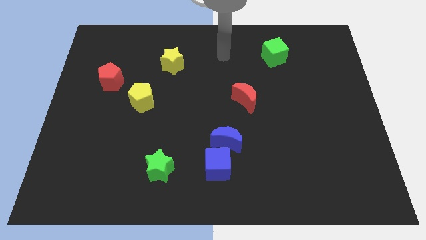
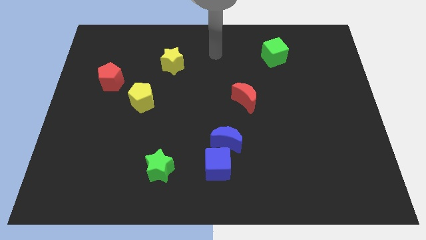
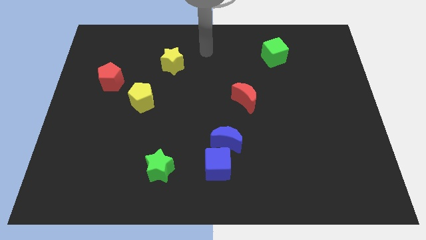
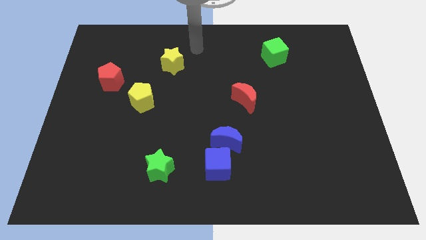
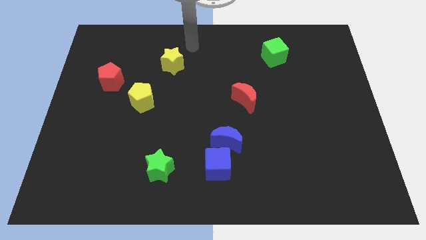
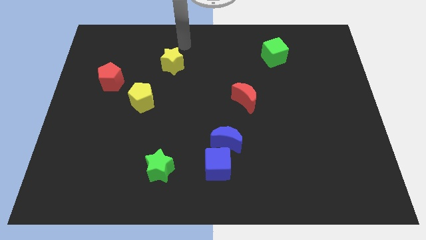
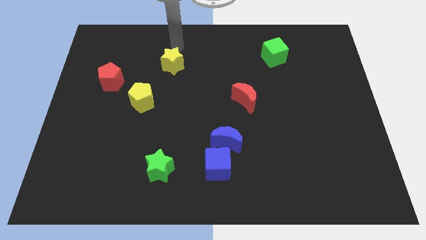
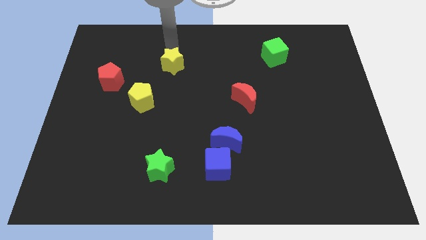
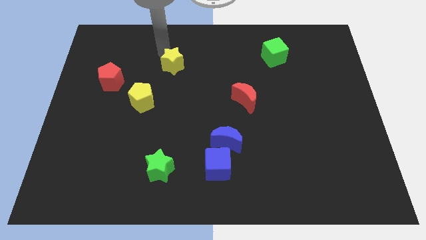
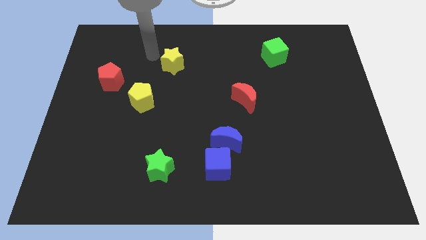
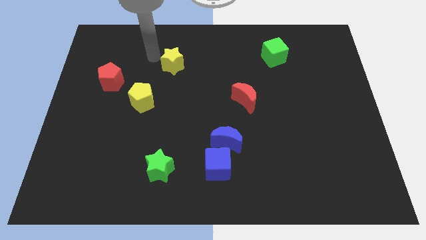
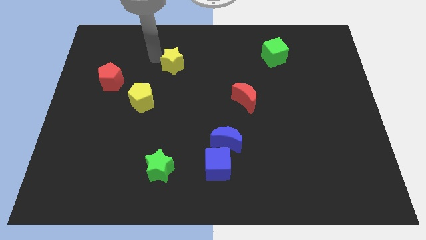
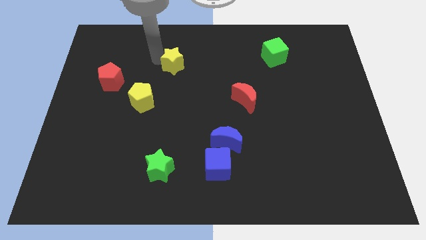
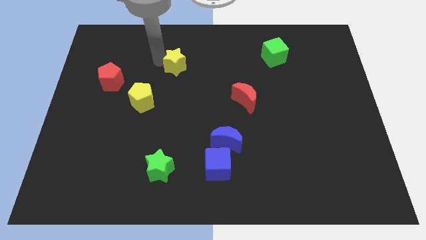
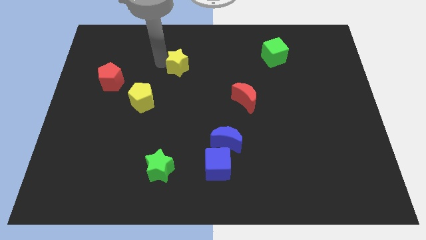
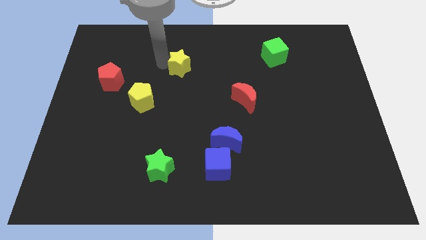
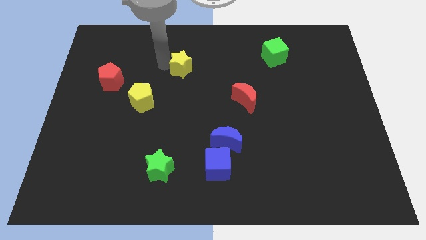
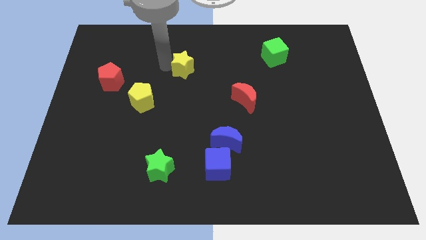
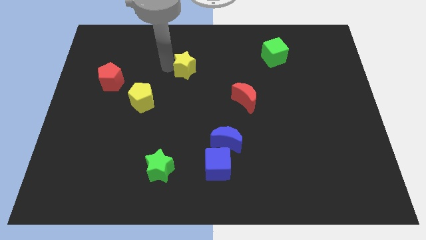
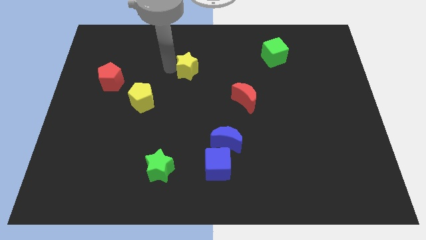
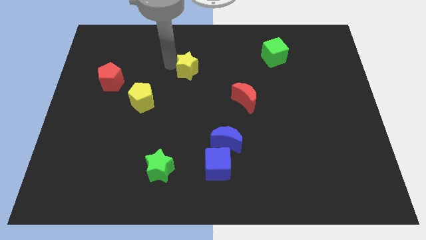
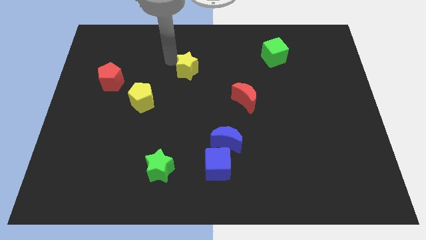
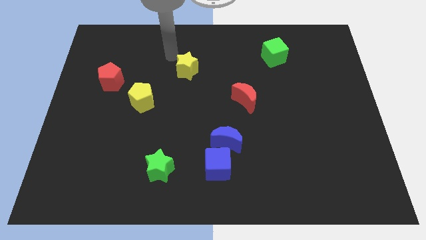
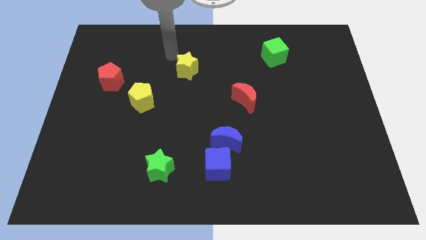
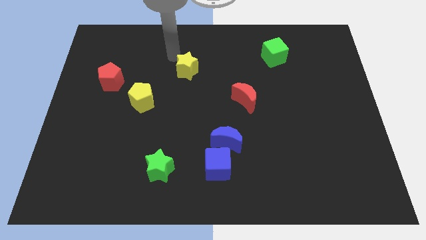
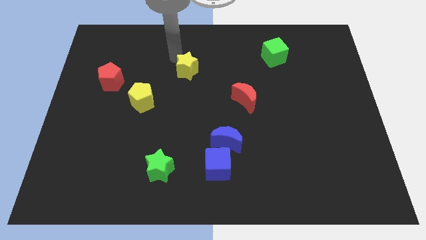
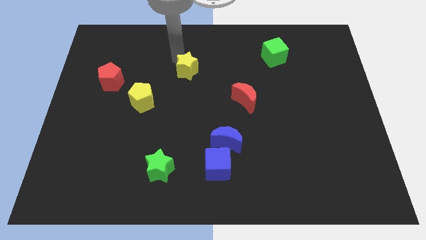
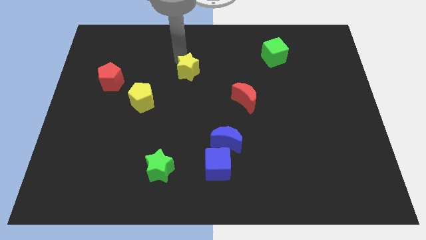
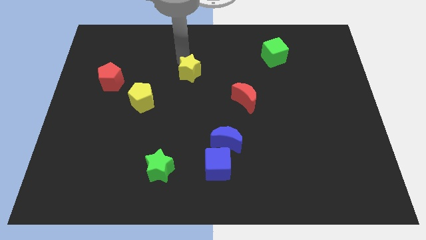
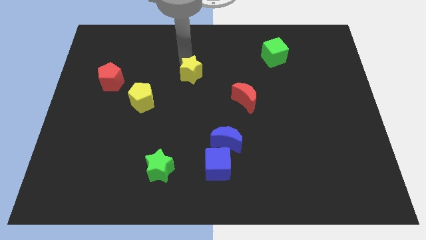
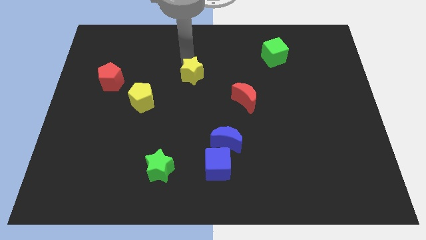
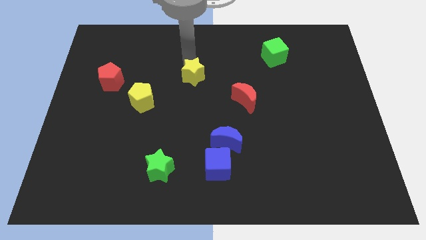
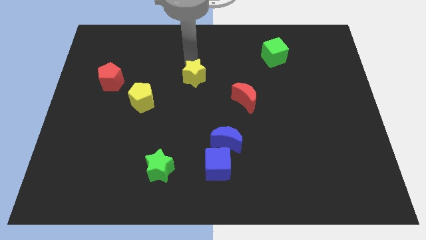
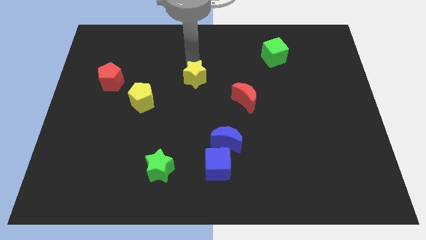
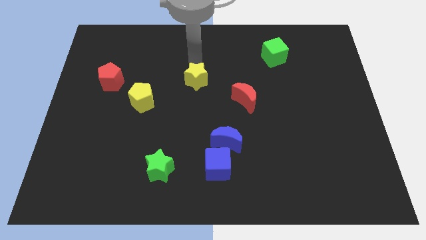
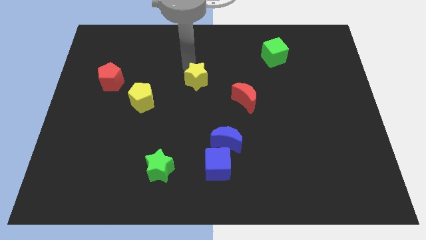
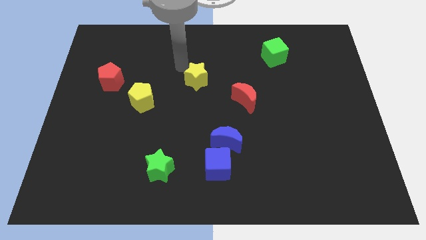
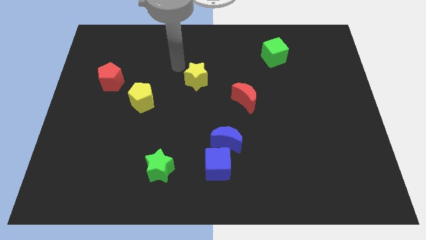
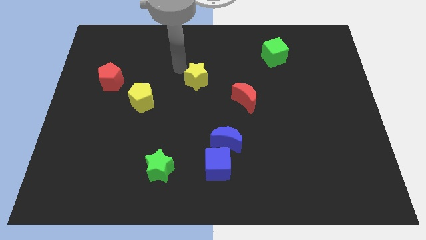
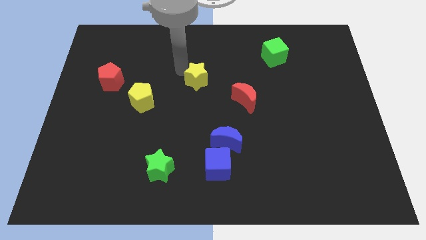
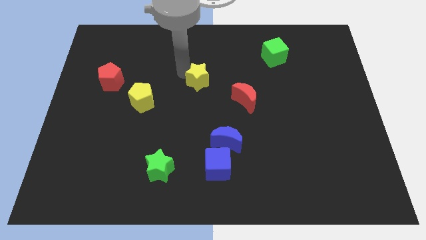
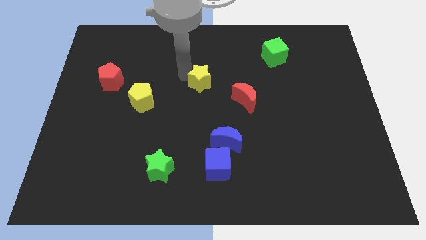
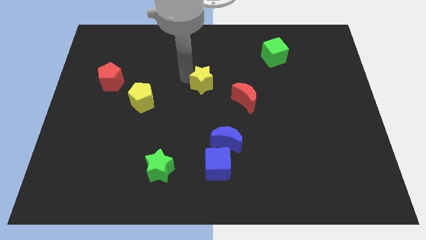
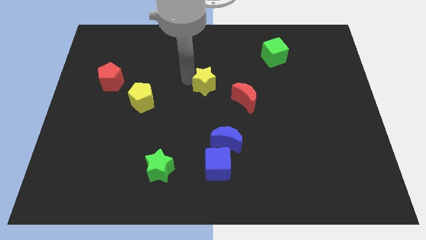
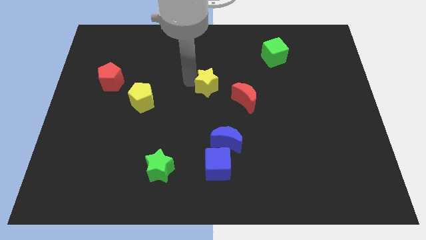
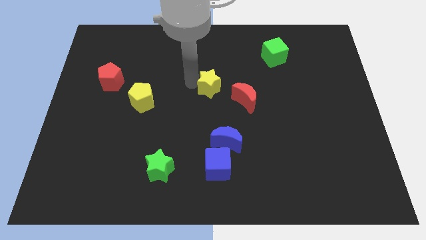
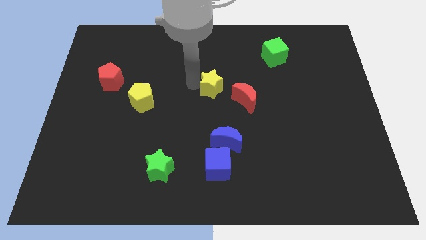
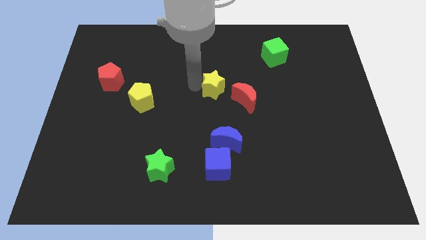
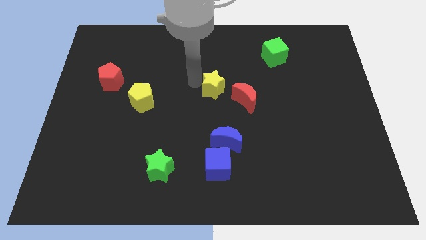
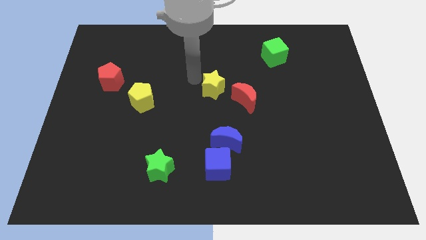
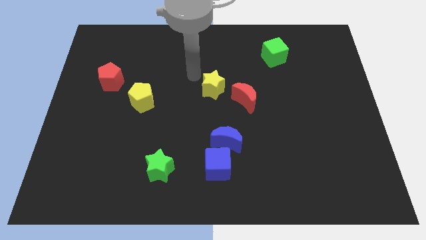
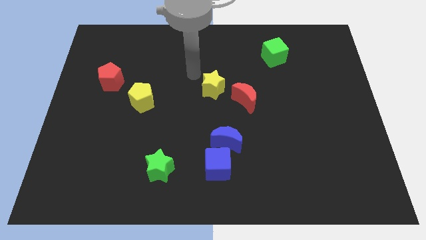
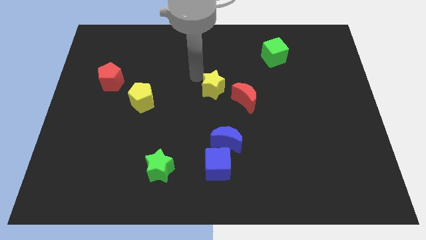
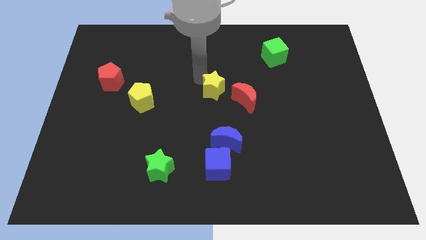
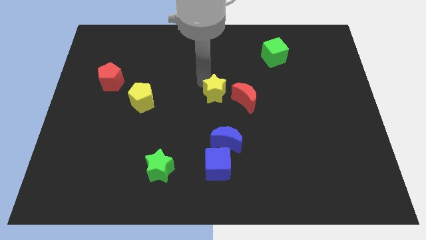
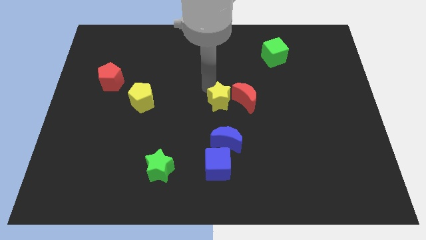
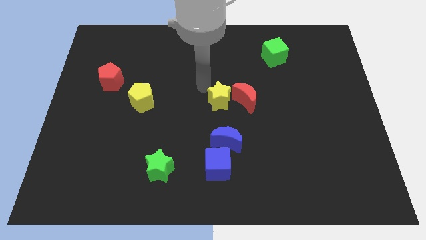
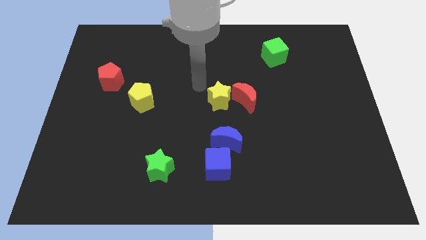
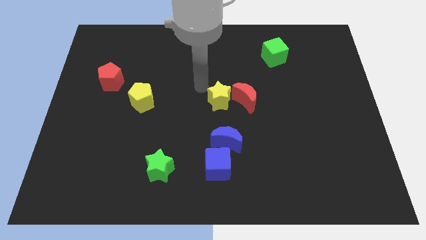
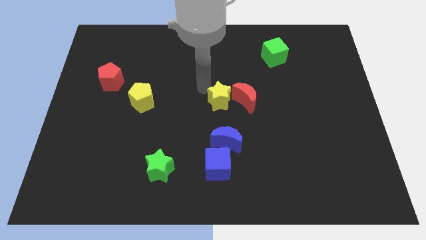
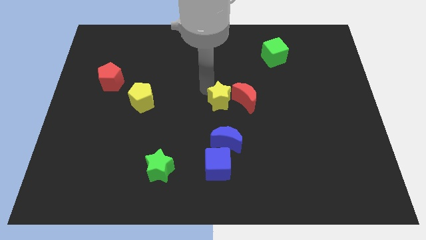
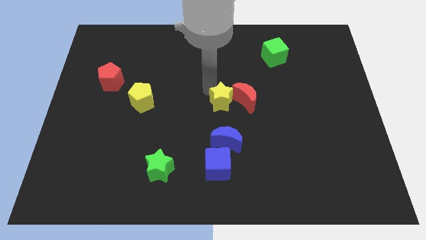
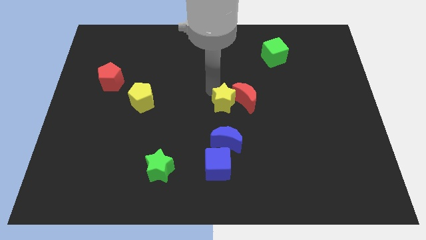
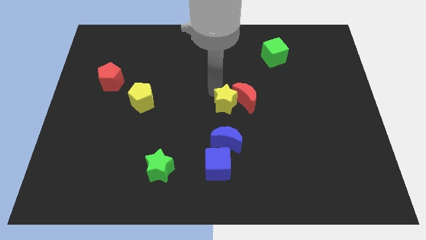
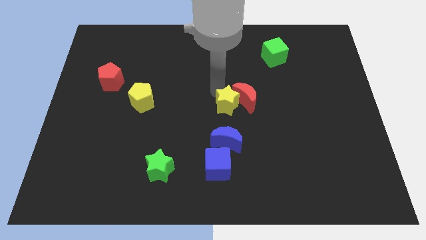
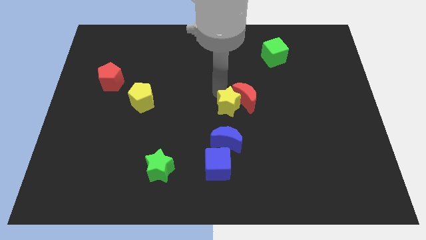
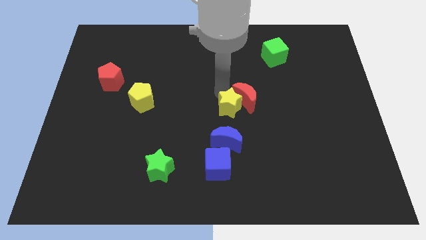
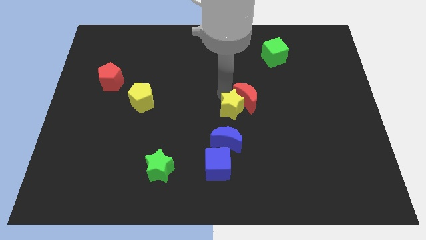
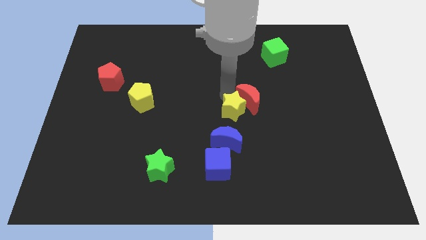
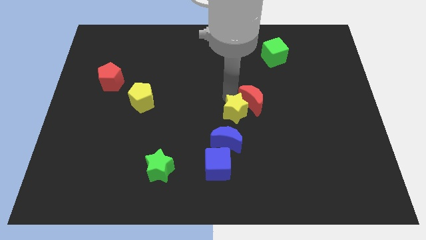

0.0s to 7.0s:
move the yellow star to the top right of the blue moon
